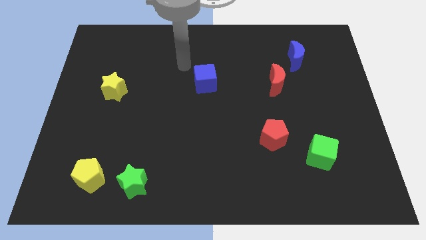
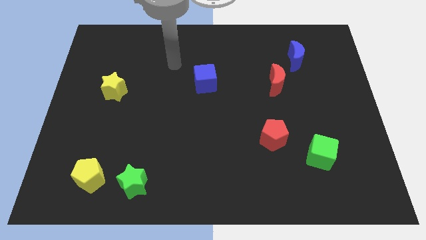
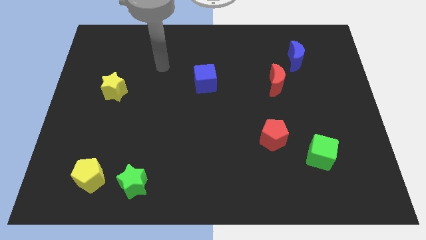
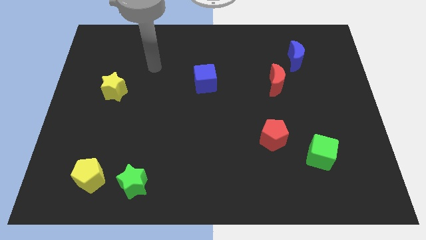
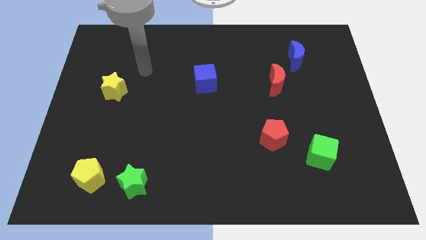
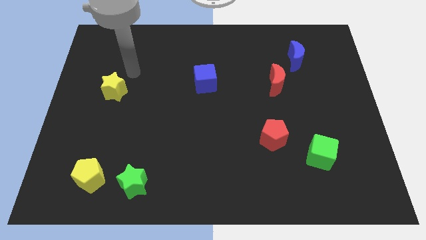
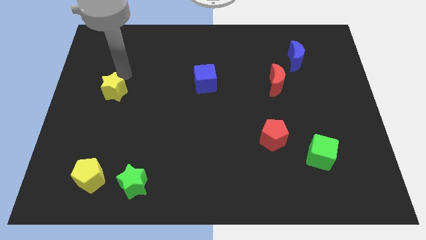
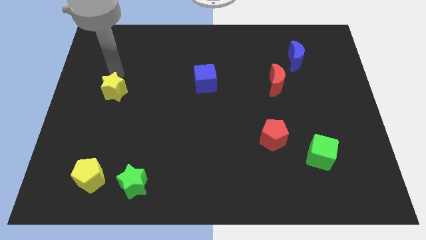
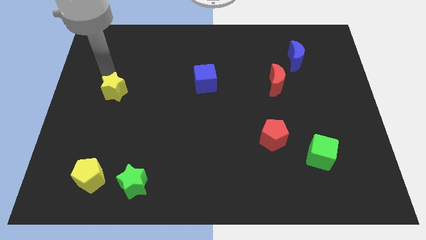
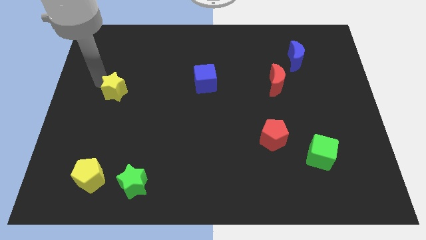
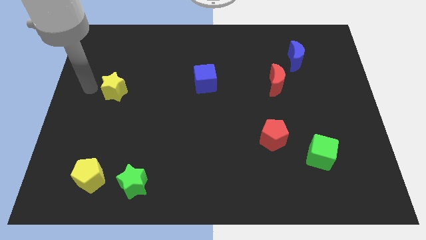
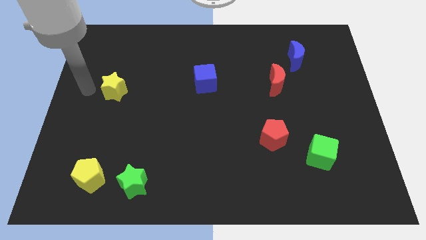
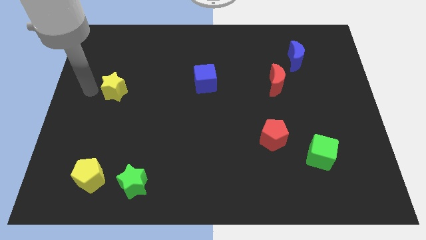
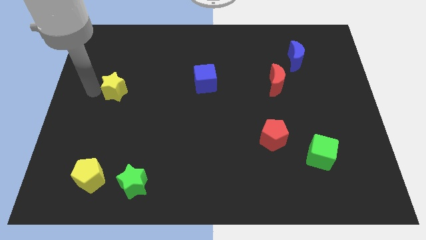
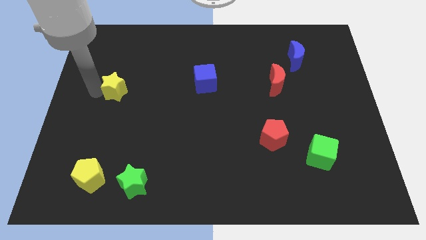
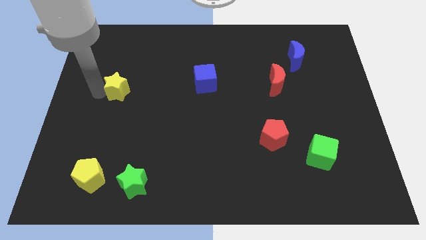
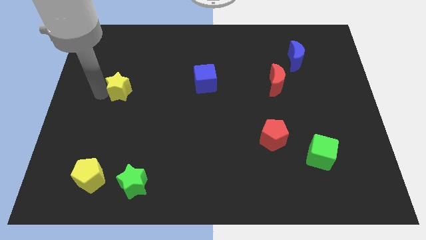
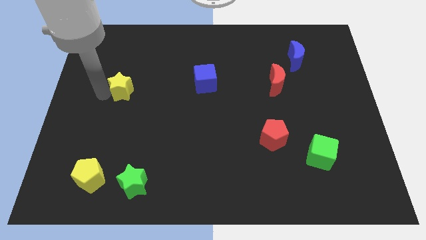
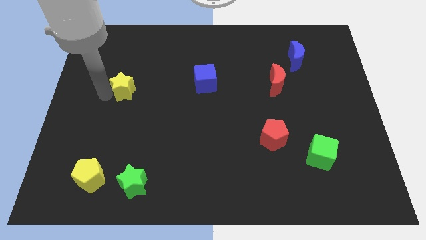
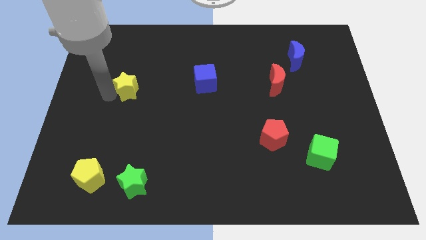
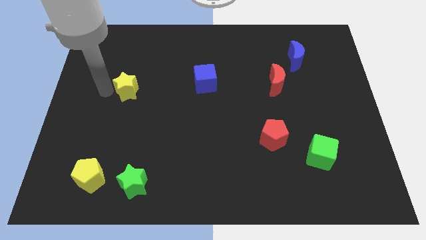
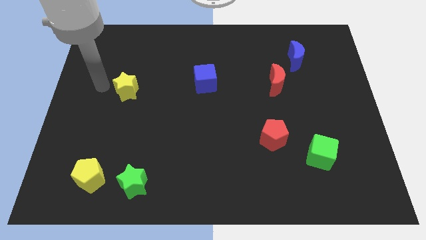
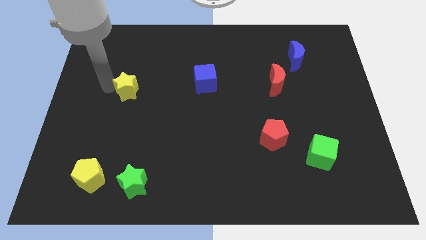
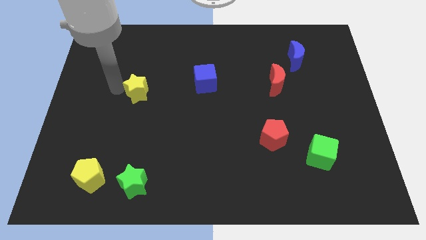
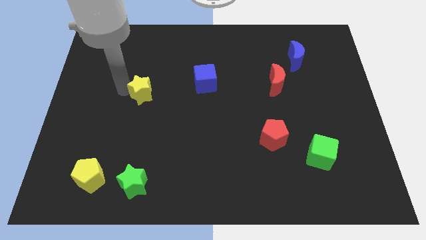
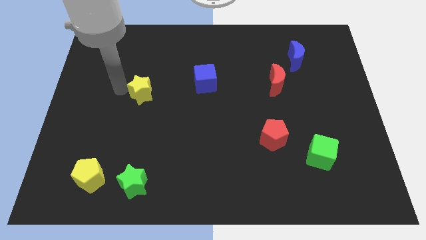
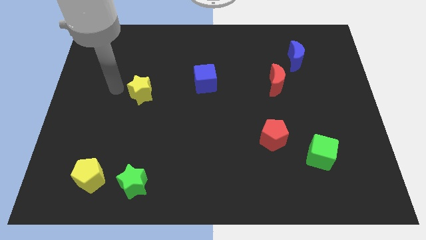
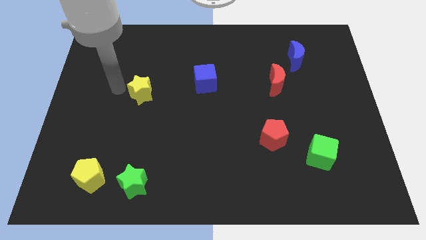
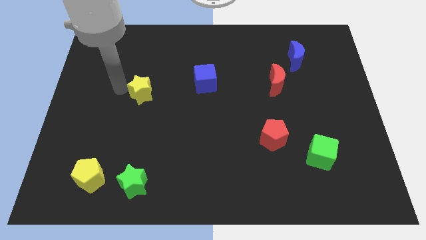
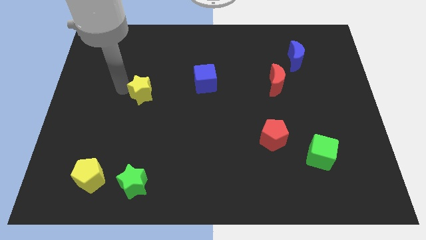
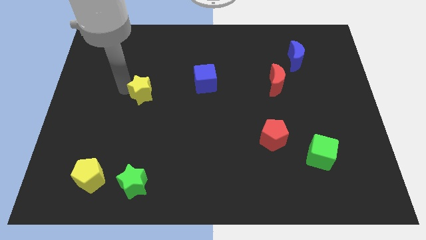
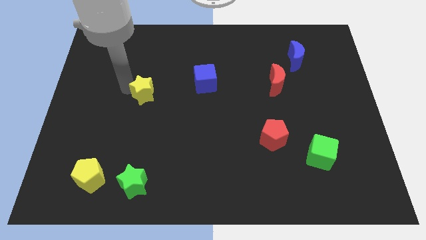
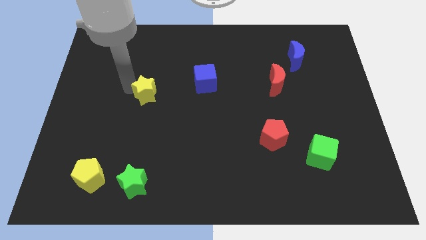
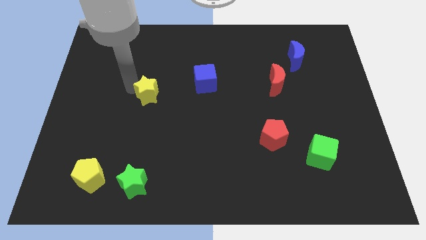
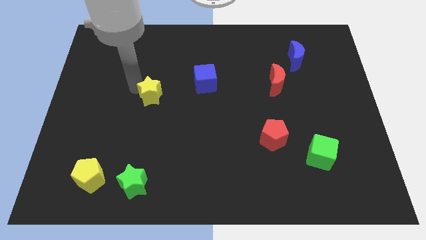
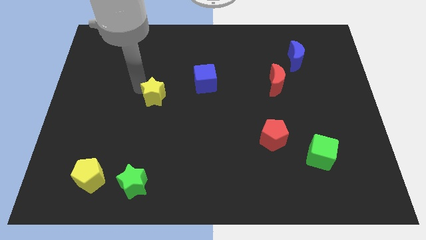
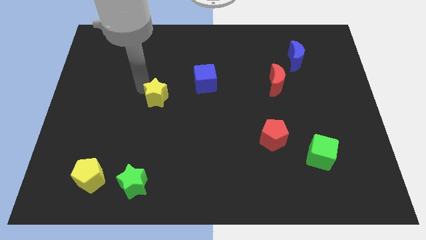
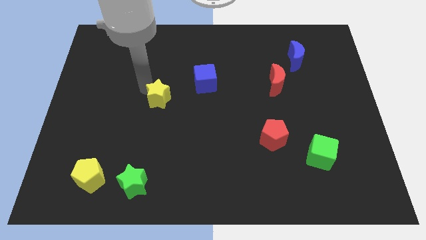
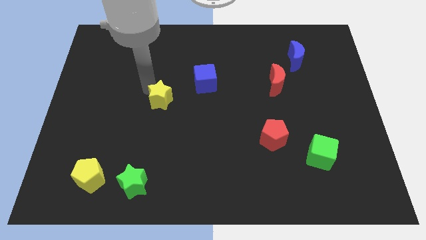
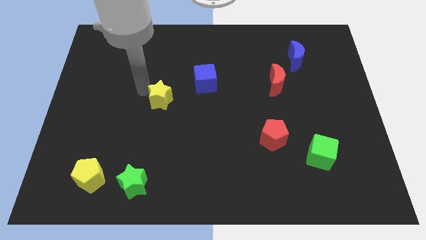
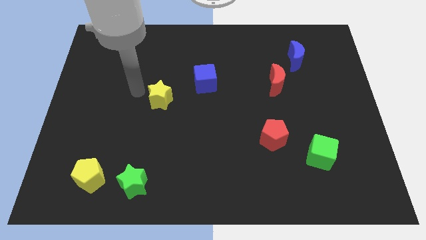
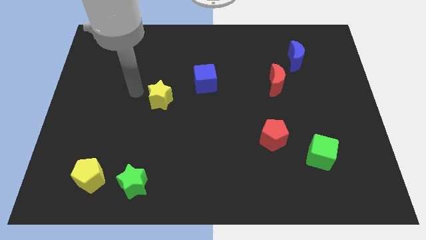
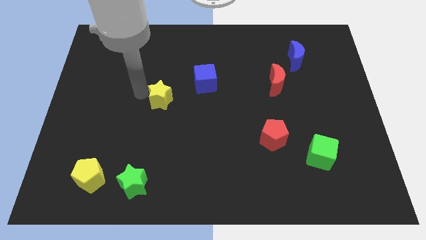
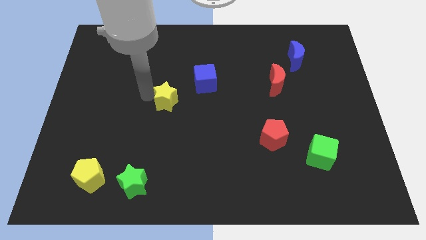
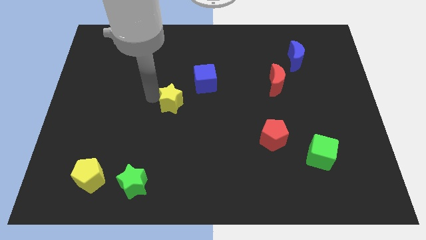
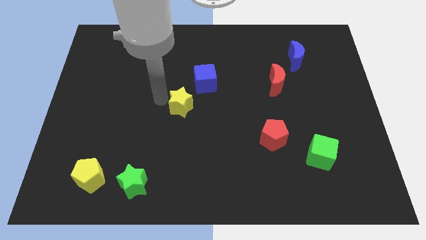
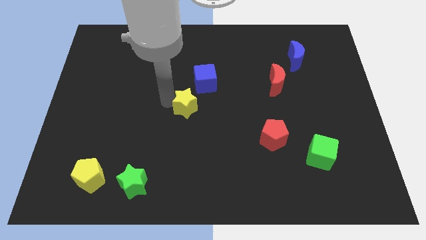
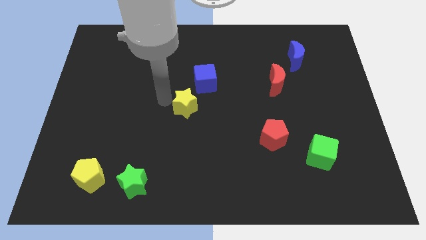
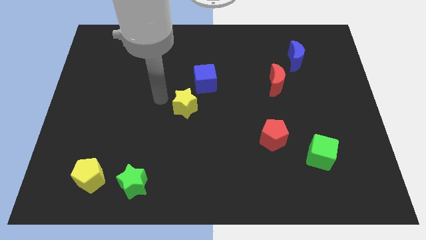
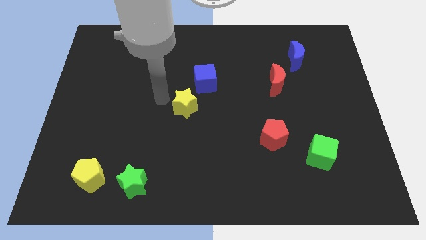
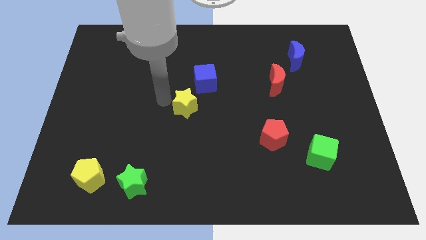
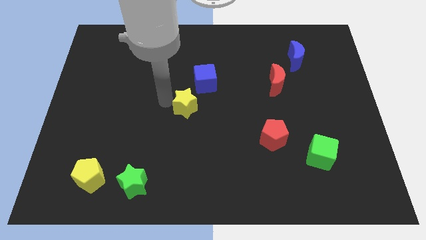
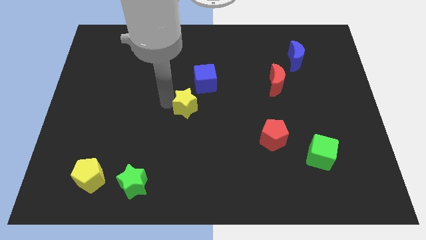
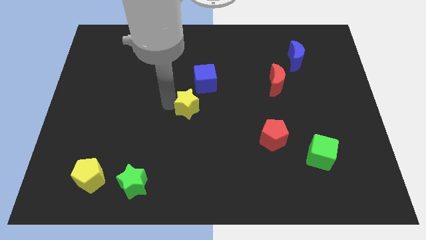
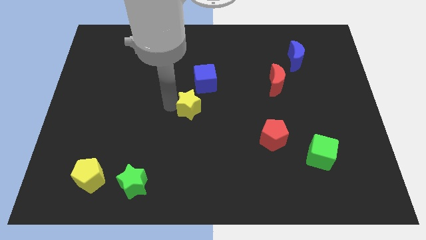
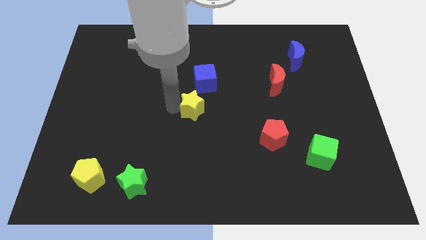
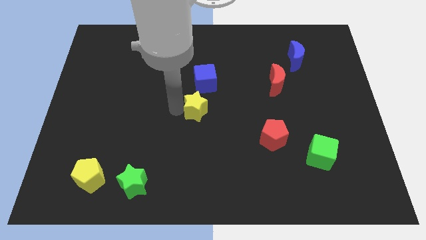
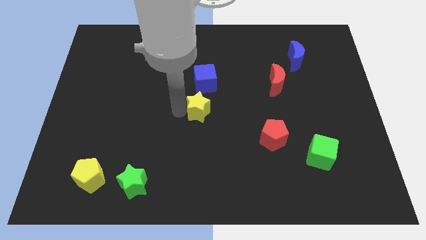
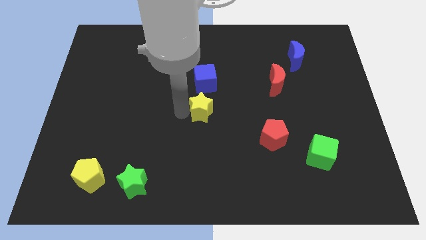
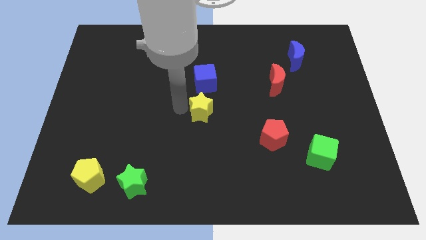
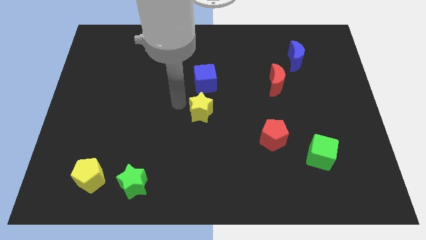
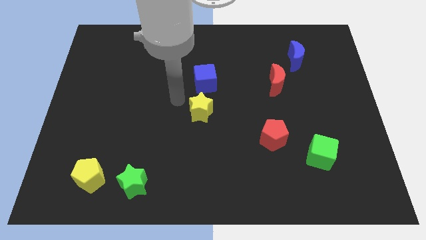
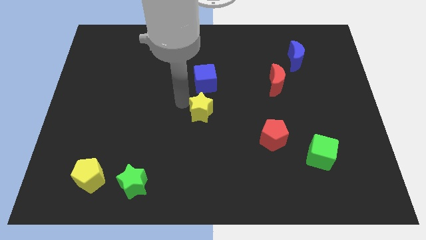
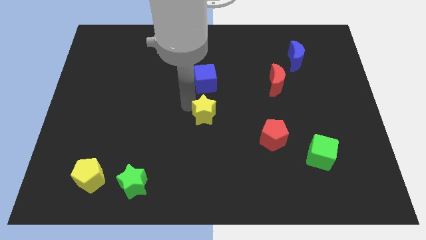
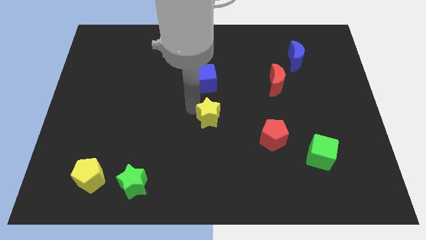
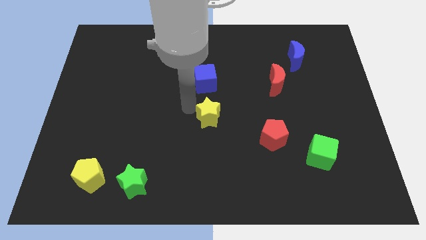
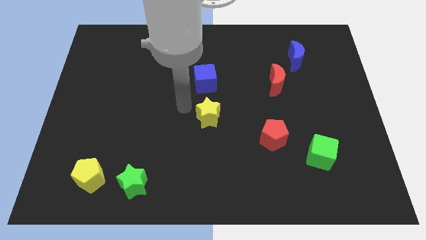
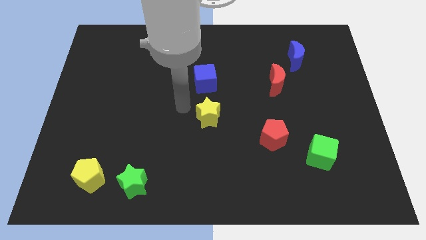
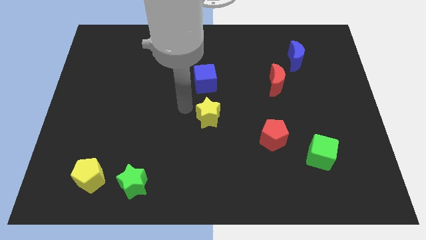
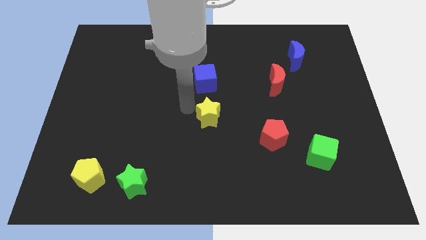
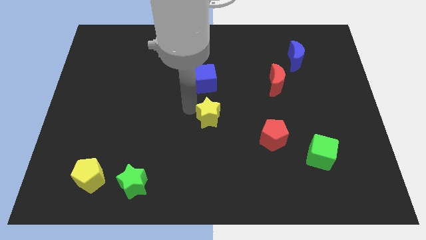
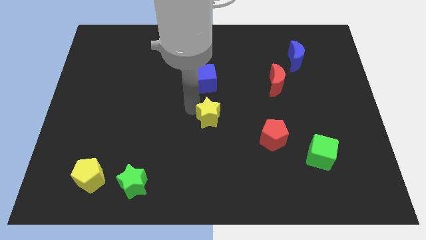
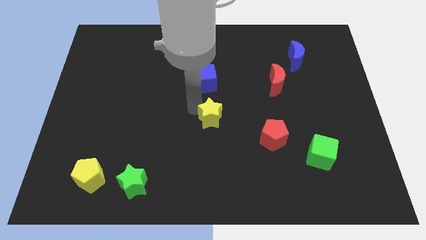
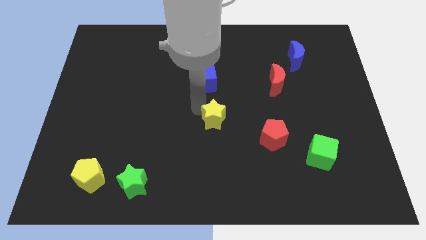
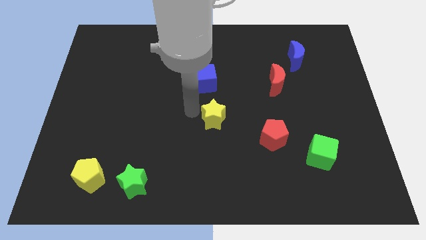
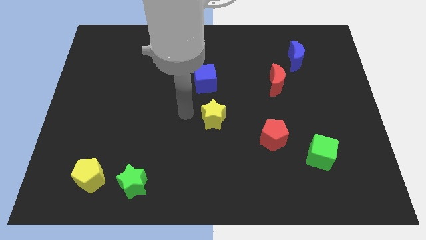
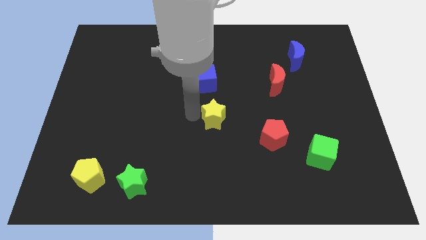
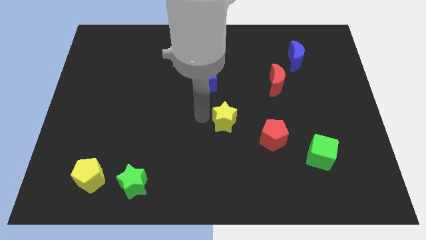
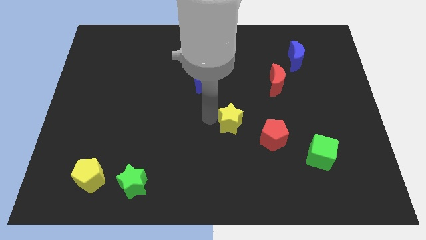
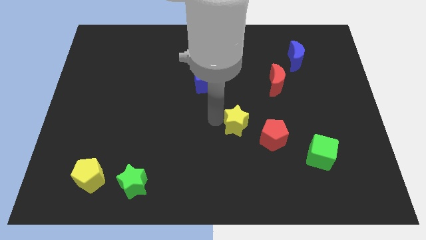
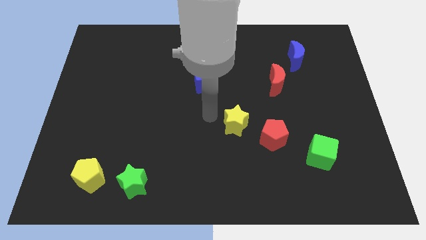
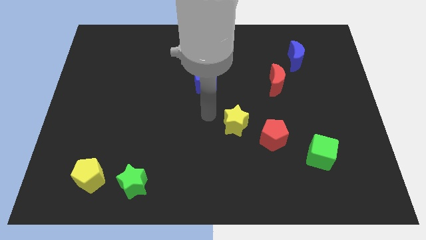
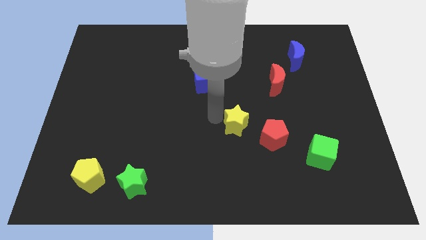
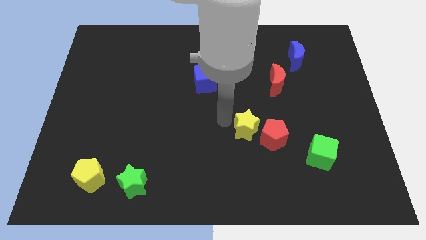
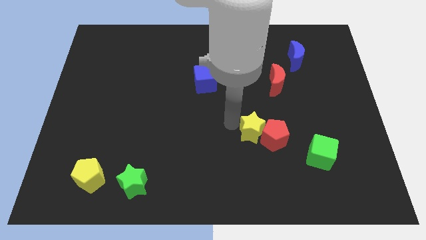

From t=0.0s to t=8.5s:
put the yellow star next to the red pentagon
